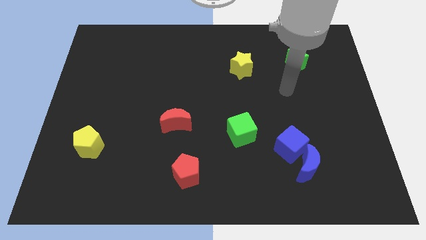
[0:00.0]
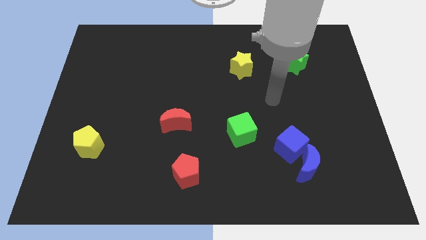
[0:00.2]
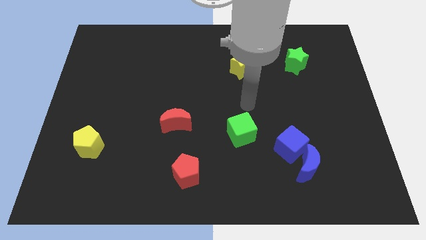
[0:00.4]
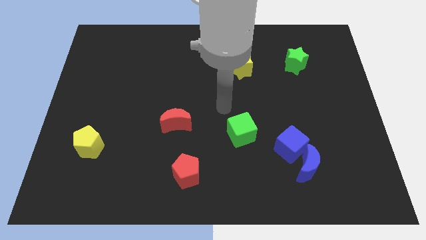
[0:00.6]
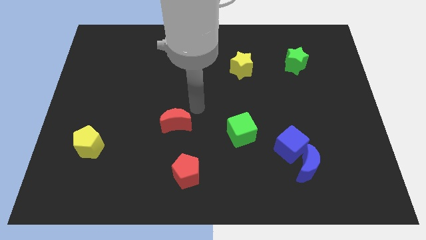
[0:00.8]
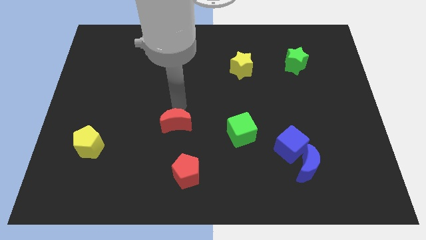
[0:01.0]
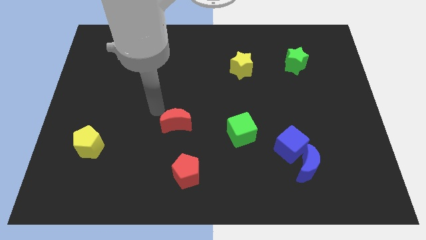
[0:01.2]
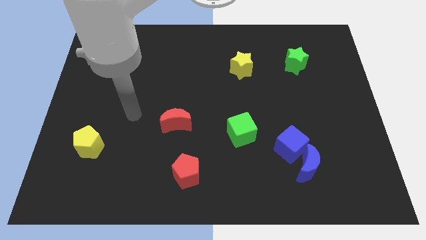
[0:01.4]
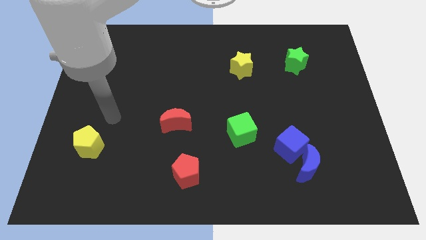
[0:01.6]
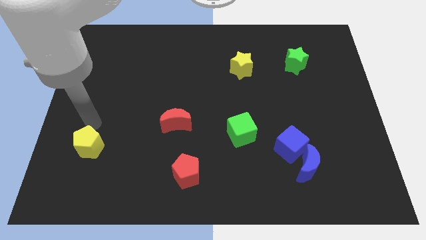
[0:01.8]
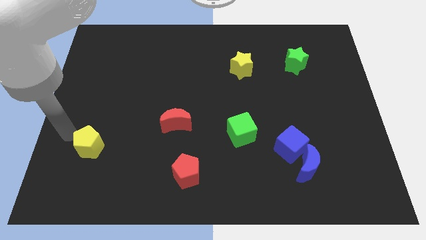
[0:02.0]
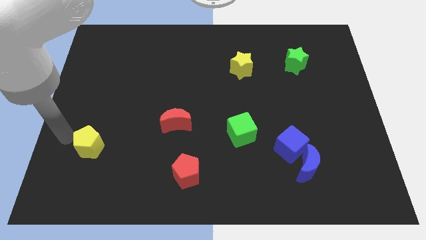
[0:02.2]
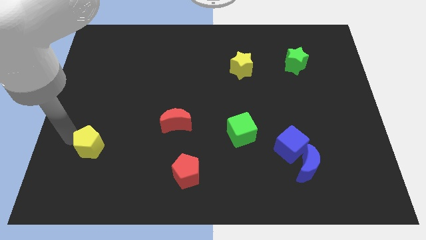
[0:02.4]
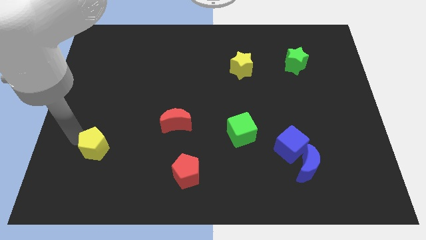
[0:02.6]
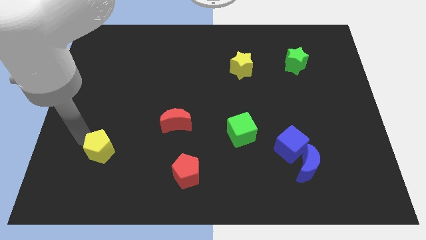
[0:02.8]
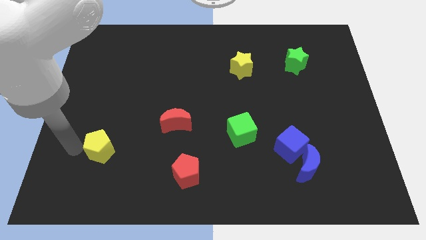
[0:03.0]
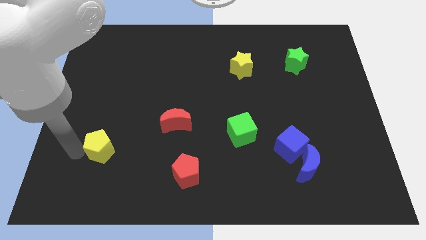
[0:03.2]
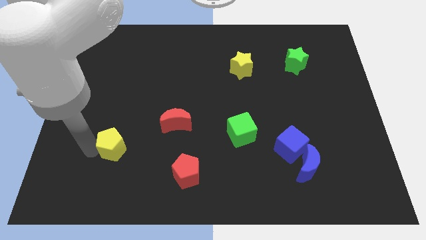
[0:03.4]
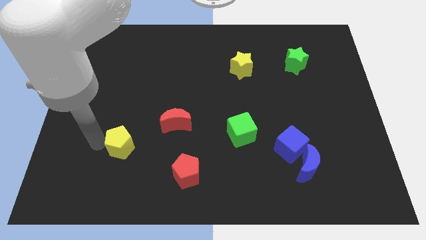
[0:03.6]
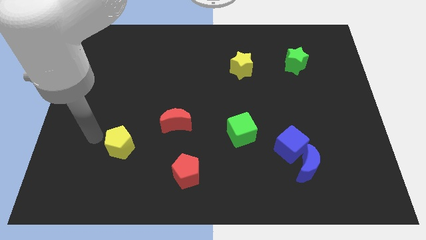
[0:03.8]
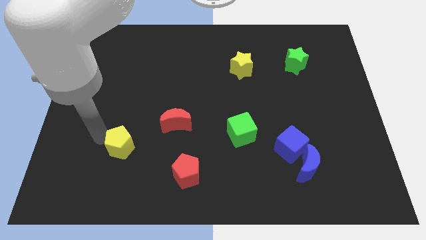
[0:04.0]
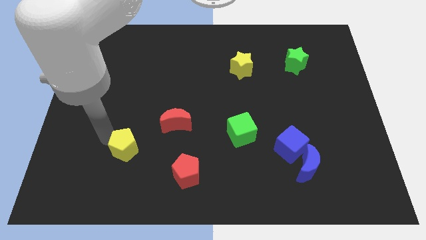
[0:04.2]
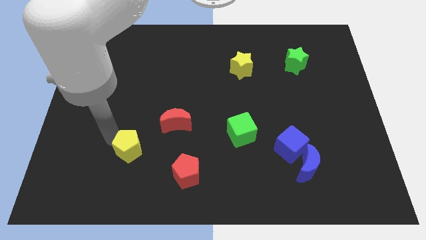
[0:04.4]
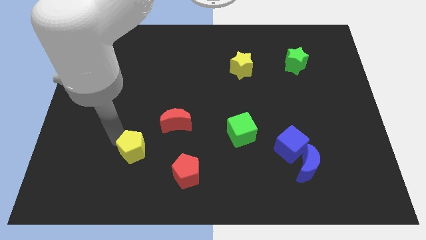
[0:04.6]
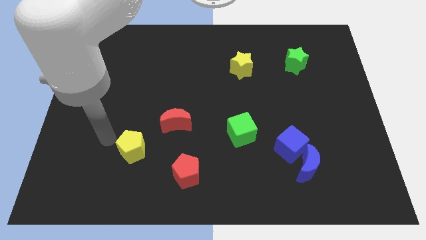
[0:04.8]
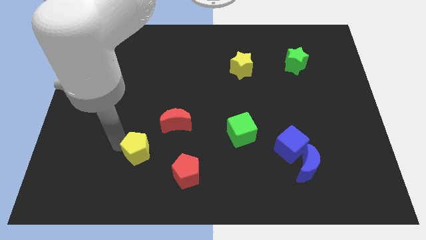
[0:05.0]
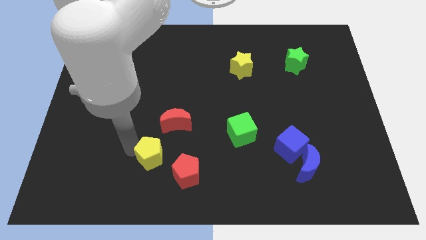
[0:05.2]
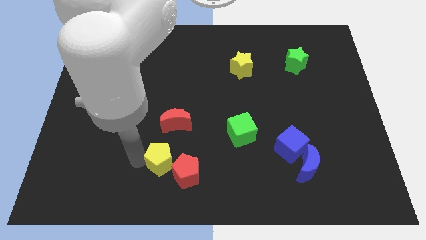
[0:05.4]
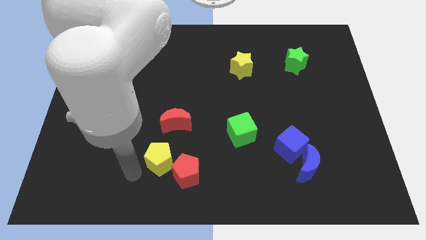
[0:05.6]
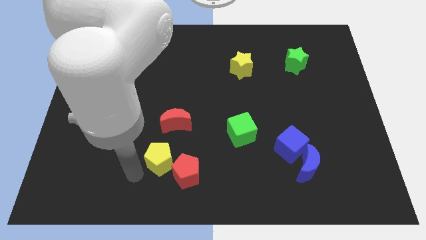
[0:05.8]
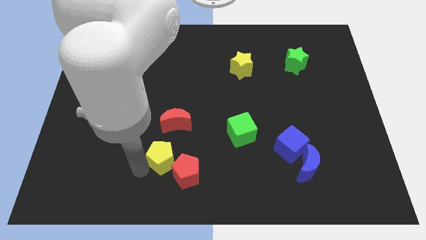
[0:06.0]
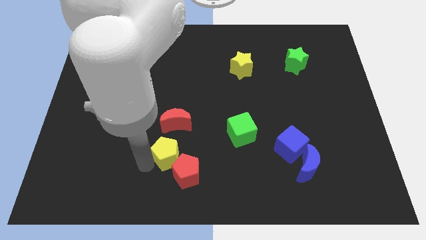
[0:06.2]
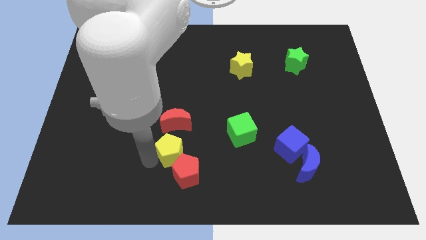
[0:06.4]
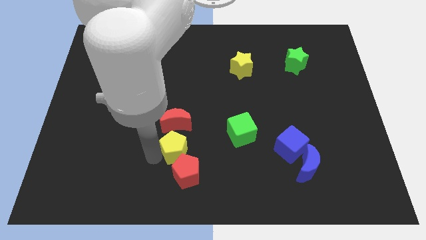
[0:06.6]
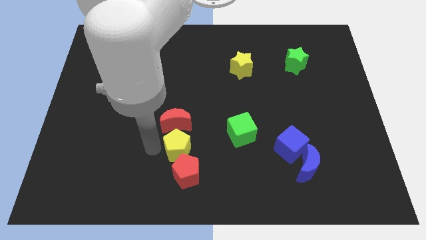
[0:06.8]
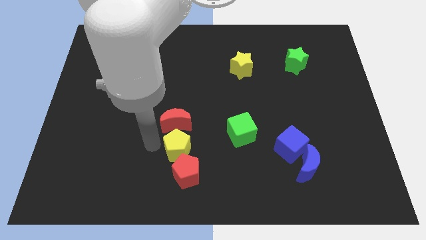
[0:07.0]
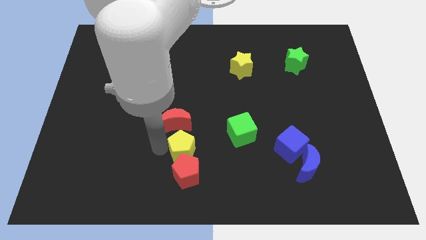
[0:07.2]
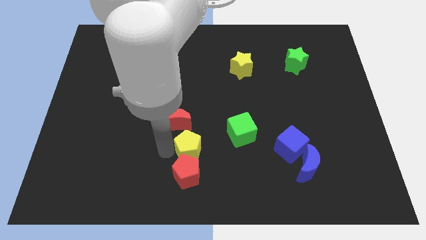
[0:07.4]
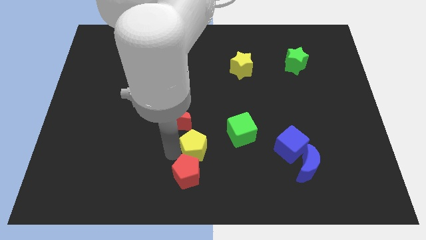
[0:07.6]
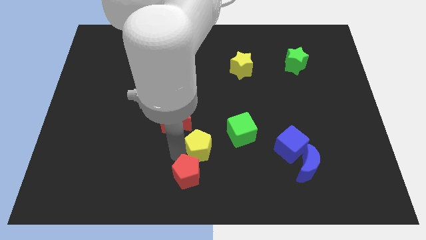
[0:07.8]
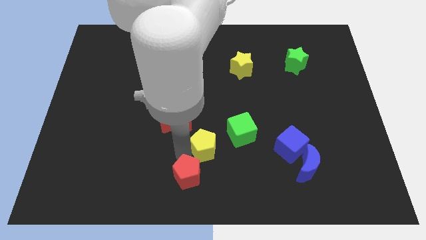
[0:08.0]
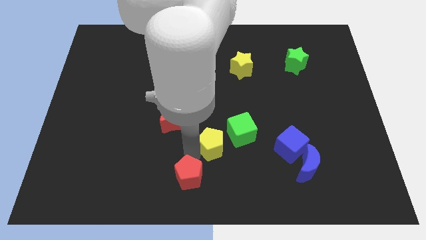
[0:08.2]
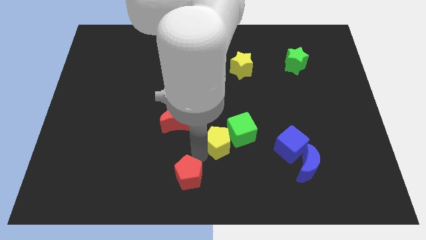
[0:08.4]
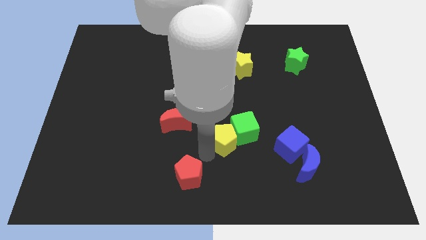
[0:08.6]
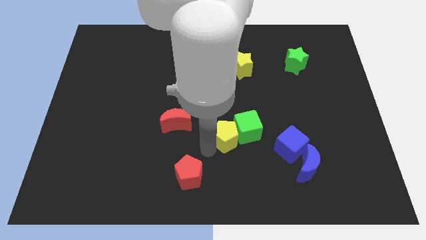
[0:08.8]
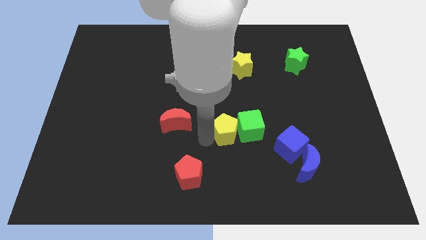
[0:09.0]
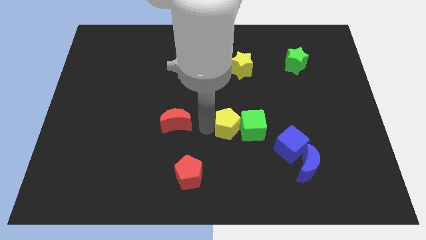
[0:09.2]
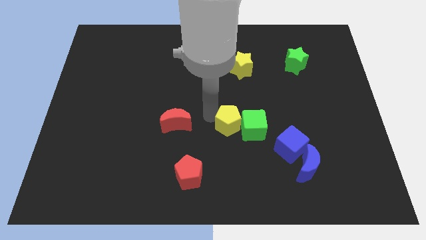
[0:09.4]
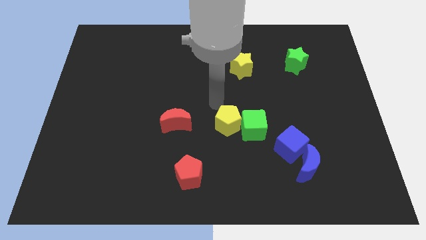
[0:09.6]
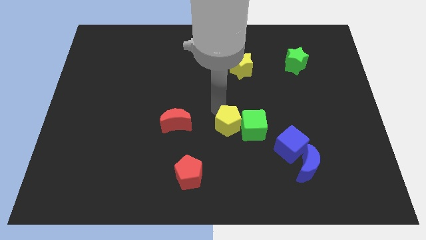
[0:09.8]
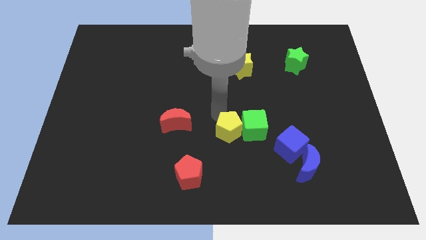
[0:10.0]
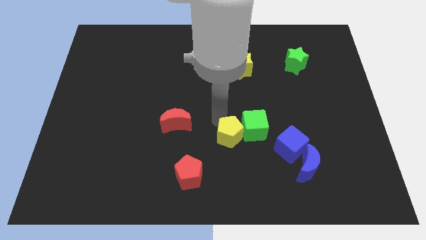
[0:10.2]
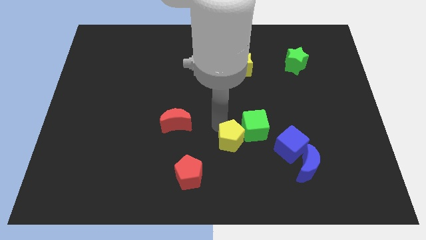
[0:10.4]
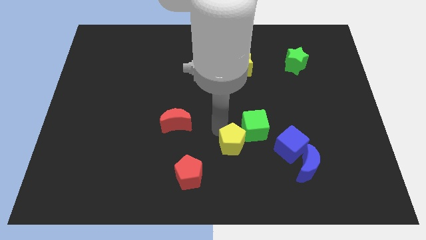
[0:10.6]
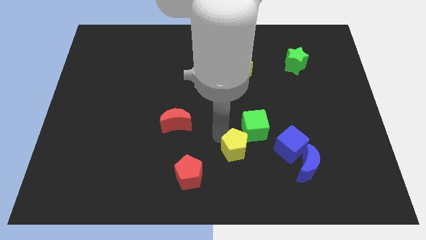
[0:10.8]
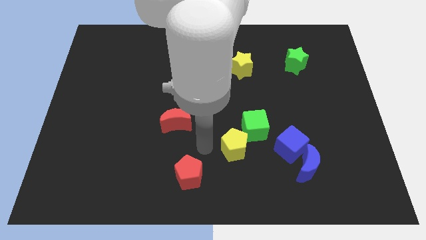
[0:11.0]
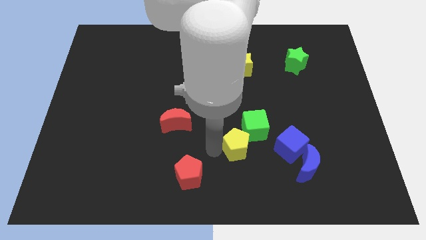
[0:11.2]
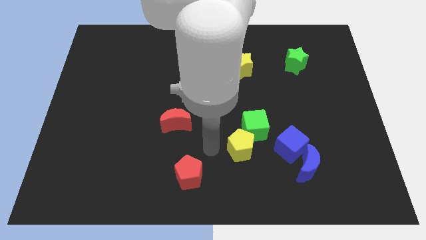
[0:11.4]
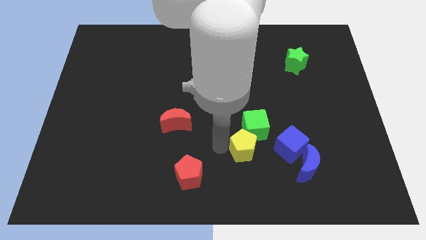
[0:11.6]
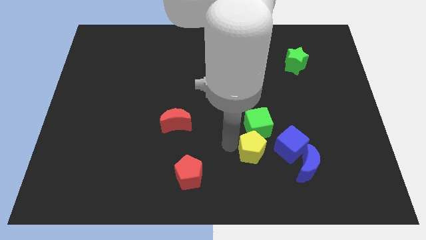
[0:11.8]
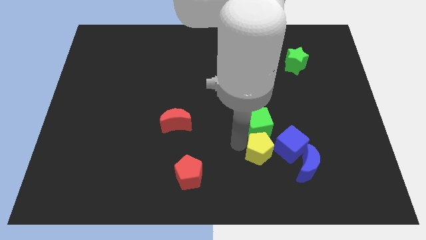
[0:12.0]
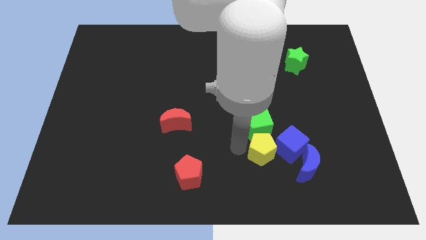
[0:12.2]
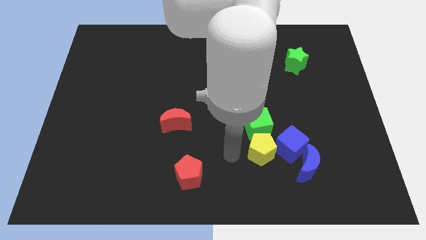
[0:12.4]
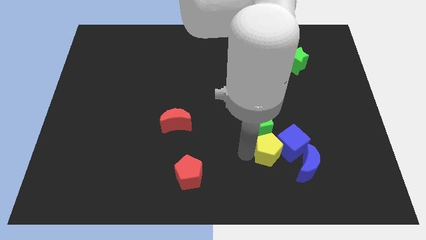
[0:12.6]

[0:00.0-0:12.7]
push the yellow pentagon towards the blue cube

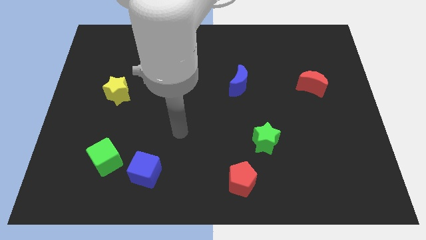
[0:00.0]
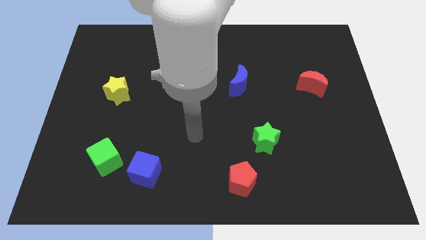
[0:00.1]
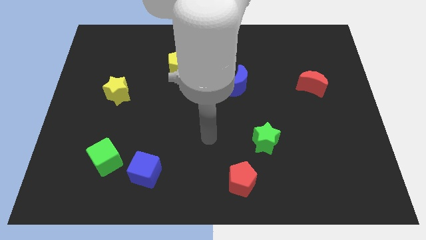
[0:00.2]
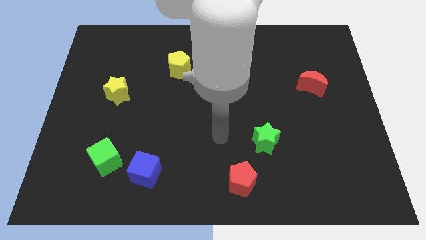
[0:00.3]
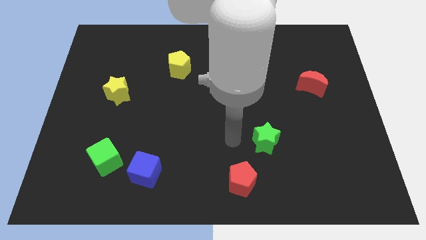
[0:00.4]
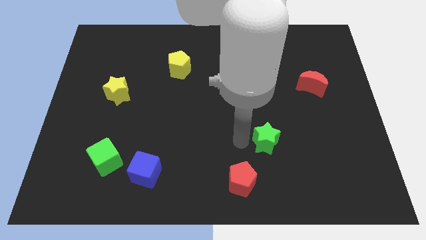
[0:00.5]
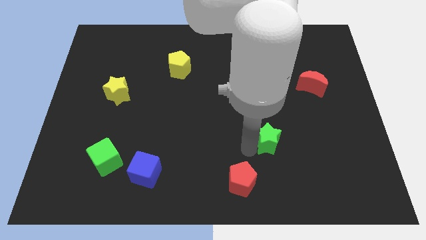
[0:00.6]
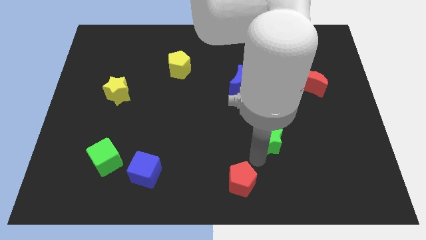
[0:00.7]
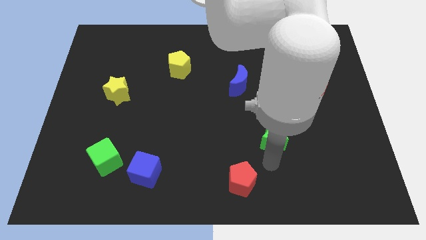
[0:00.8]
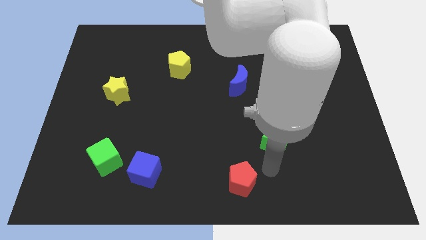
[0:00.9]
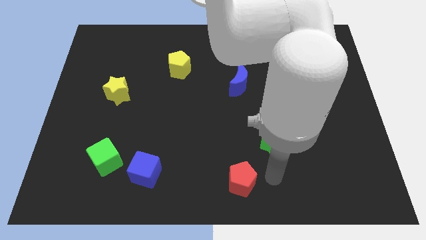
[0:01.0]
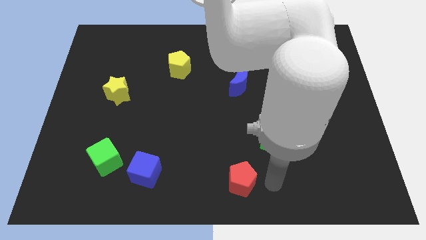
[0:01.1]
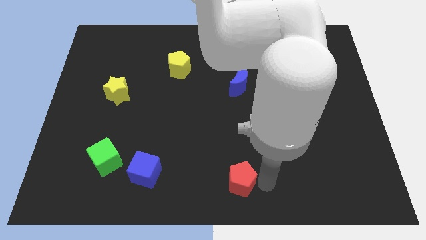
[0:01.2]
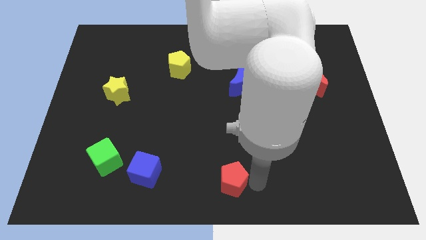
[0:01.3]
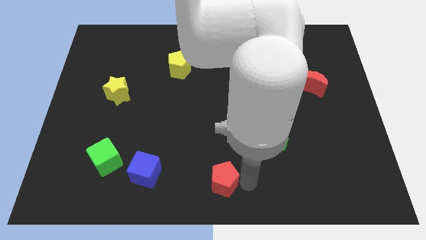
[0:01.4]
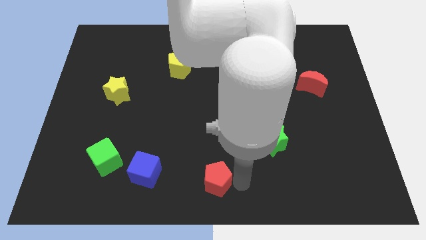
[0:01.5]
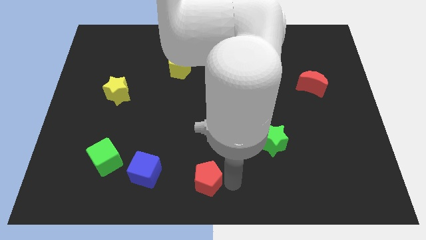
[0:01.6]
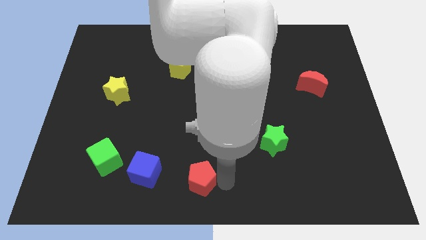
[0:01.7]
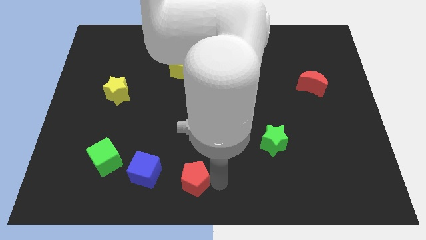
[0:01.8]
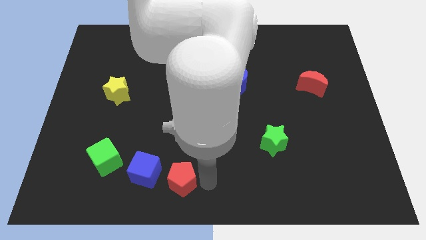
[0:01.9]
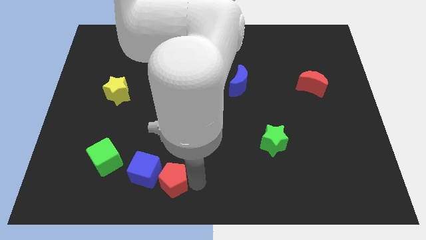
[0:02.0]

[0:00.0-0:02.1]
push the red pentagon towards the blue cube
